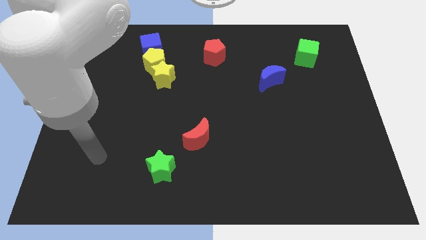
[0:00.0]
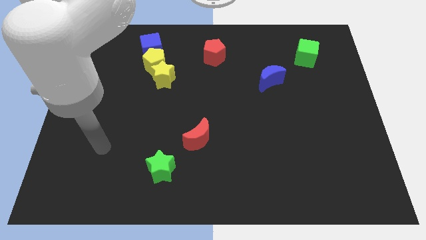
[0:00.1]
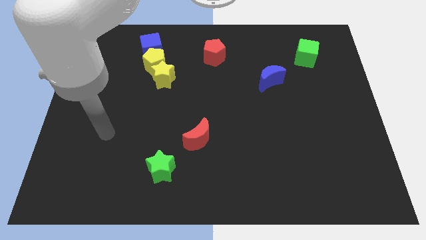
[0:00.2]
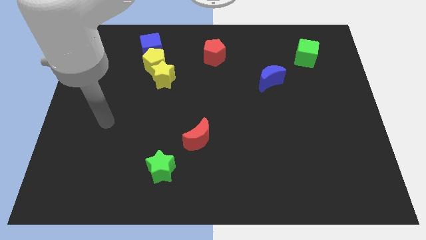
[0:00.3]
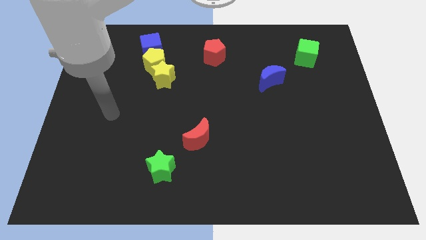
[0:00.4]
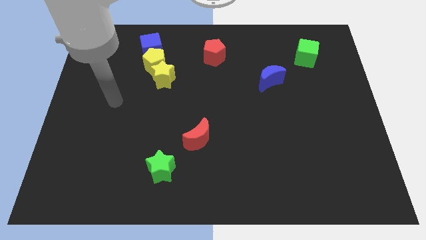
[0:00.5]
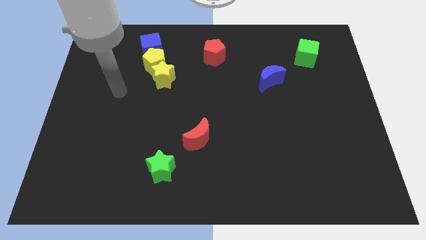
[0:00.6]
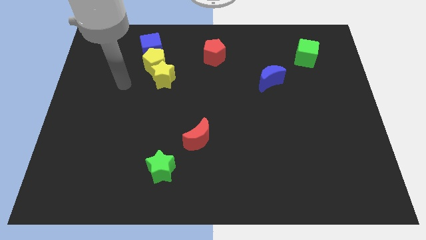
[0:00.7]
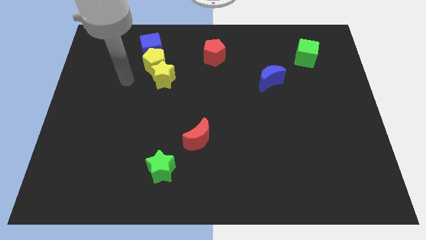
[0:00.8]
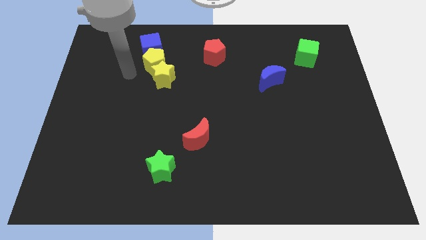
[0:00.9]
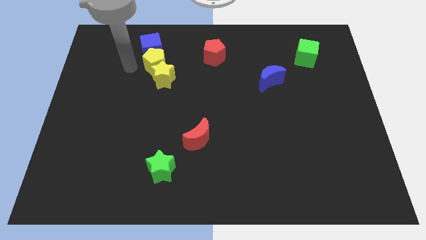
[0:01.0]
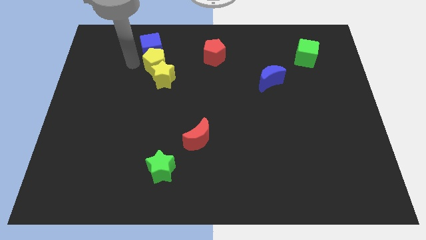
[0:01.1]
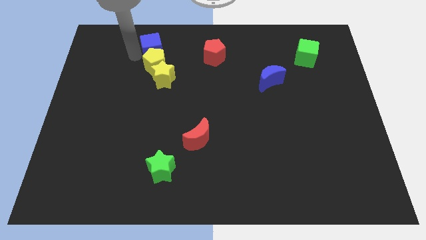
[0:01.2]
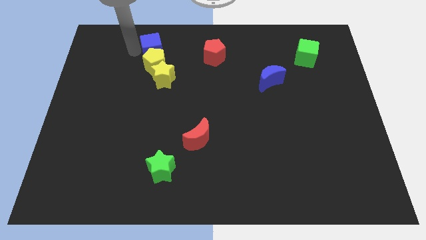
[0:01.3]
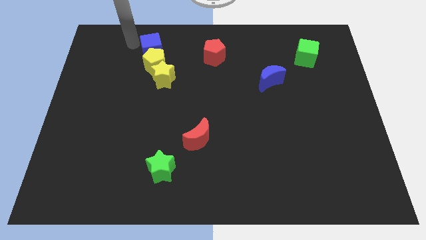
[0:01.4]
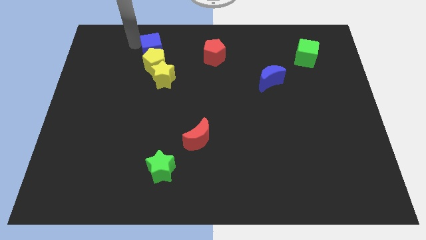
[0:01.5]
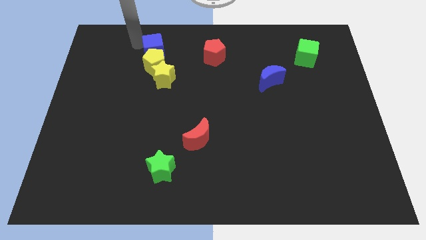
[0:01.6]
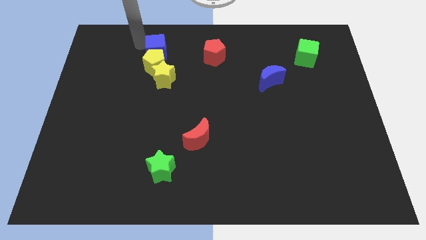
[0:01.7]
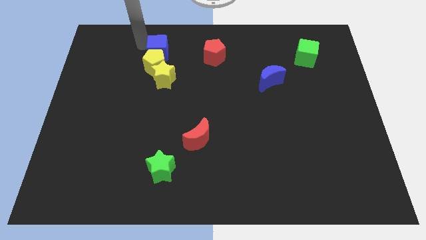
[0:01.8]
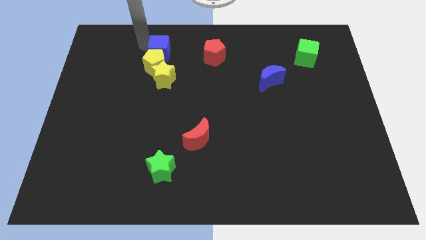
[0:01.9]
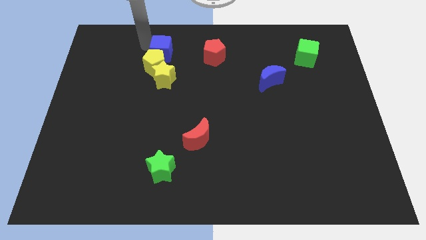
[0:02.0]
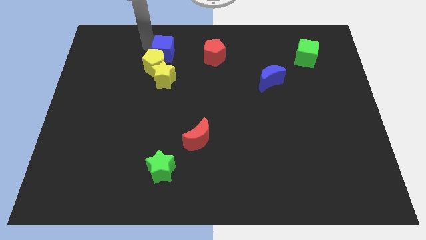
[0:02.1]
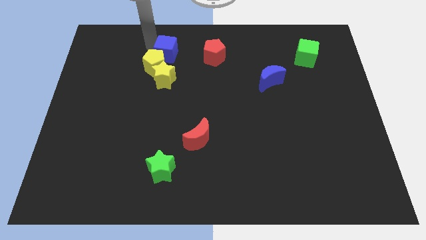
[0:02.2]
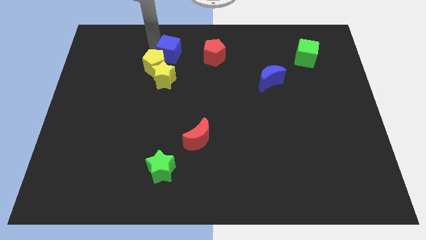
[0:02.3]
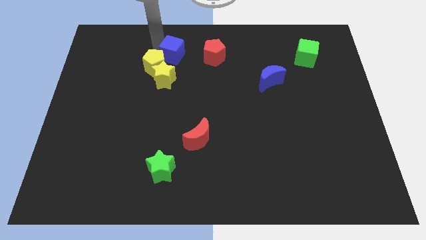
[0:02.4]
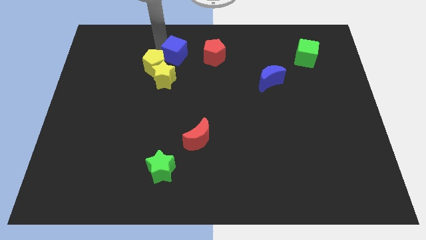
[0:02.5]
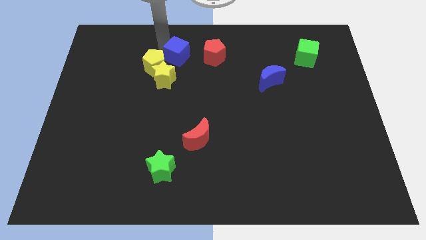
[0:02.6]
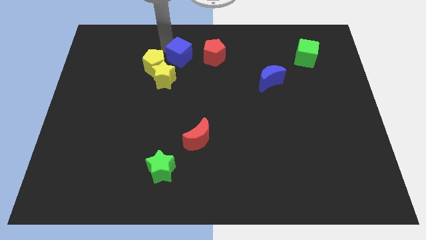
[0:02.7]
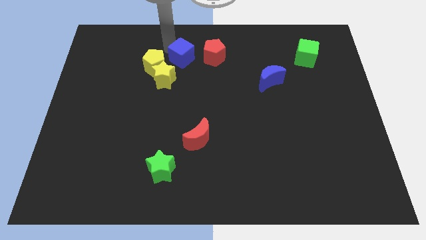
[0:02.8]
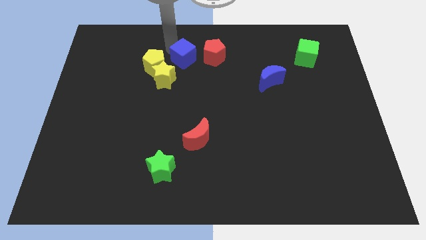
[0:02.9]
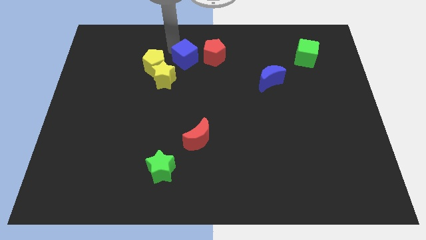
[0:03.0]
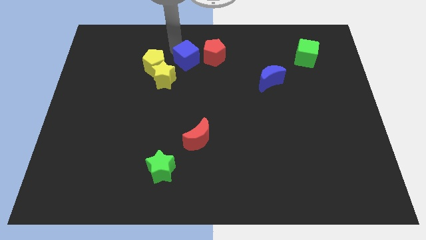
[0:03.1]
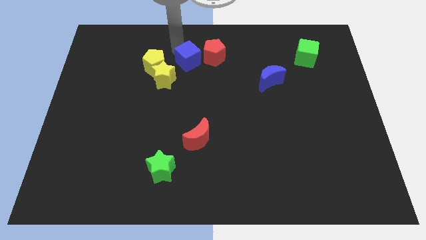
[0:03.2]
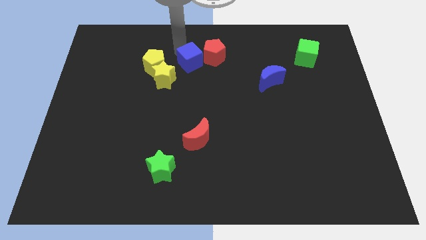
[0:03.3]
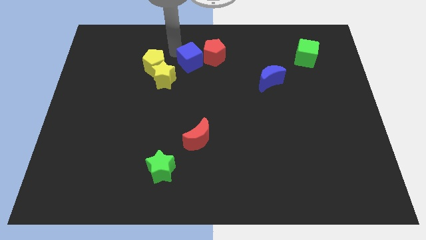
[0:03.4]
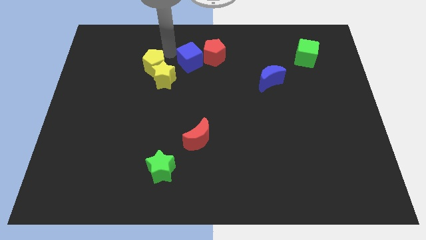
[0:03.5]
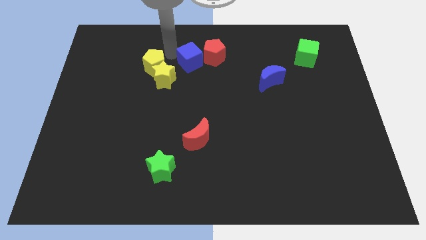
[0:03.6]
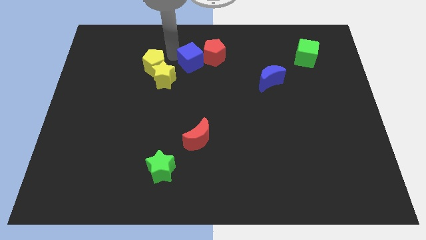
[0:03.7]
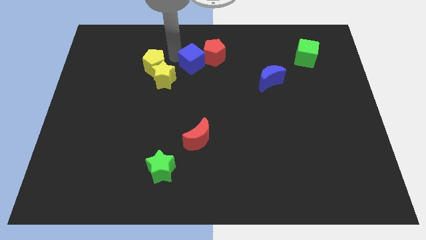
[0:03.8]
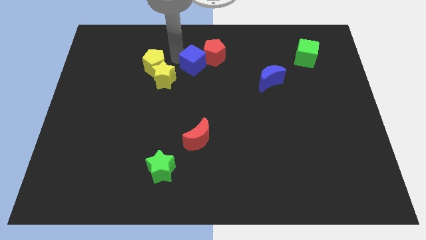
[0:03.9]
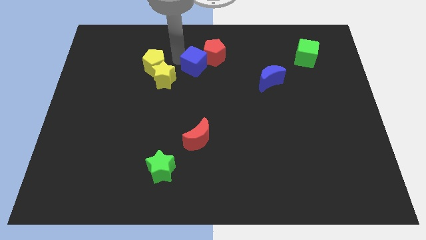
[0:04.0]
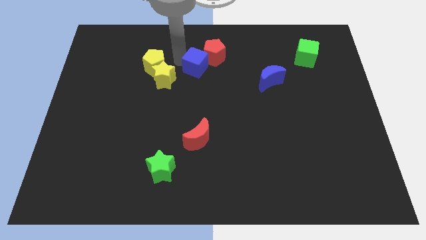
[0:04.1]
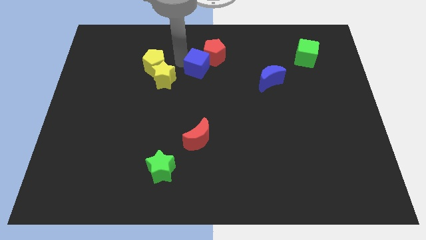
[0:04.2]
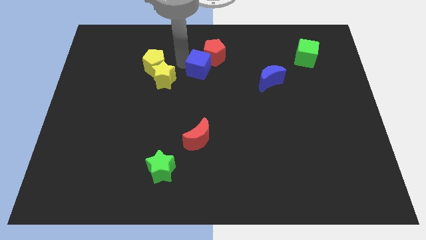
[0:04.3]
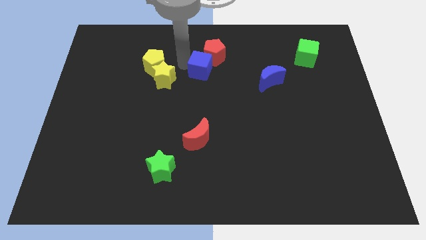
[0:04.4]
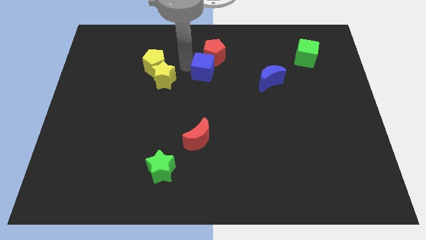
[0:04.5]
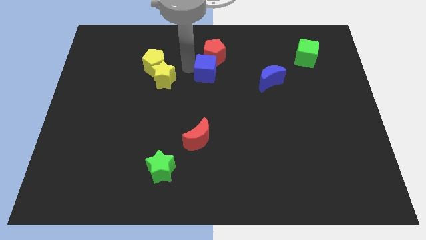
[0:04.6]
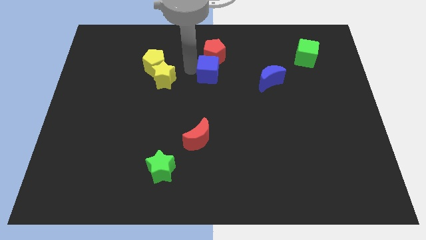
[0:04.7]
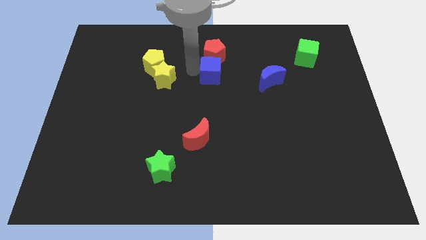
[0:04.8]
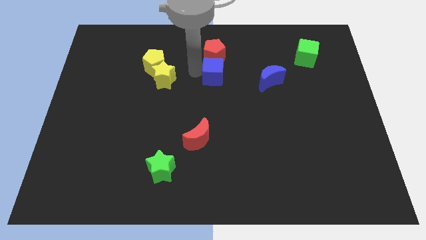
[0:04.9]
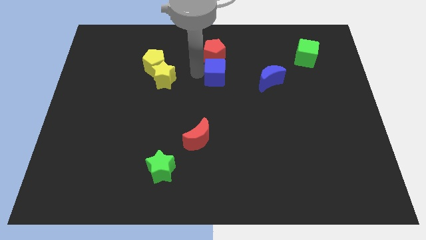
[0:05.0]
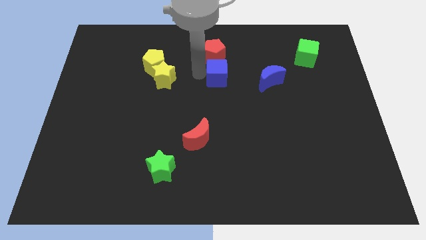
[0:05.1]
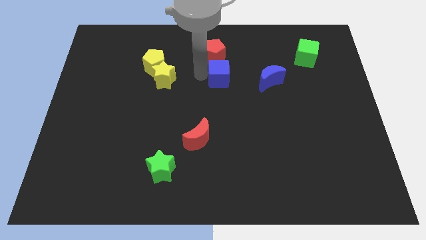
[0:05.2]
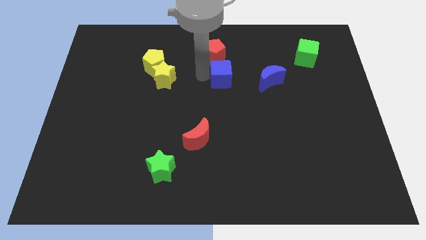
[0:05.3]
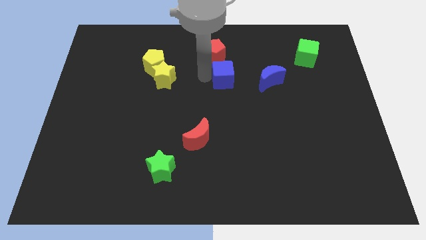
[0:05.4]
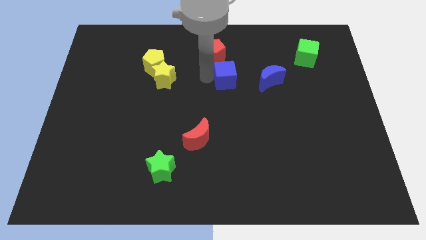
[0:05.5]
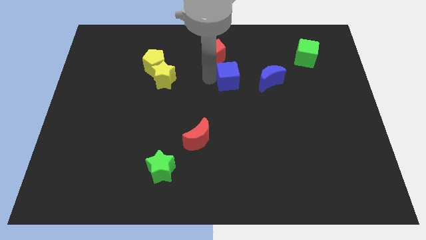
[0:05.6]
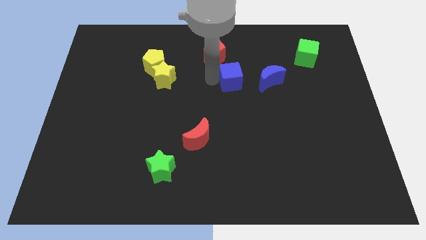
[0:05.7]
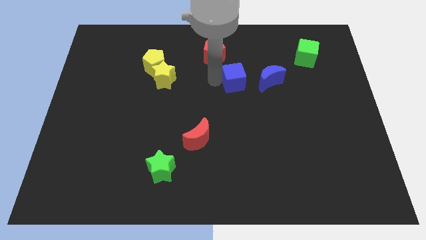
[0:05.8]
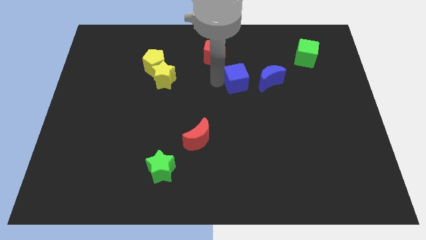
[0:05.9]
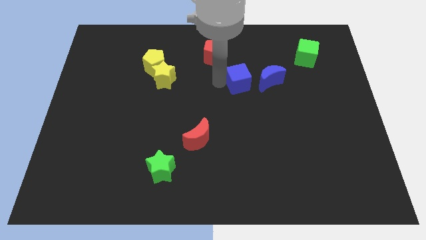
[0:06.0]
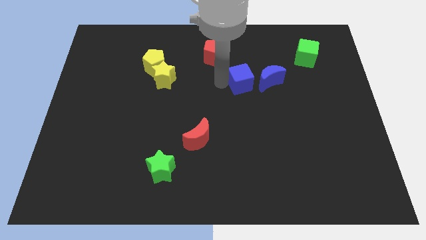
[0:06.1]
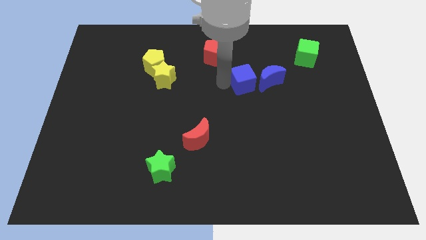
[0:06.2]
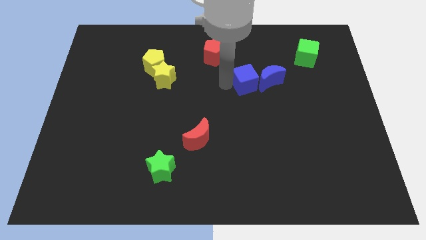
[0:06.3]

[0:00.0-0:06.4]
slide the blue cube close to the blue moon

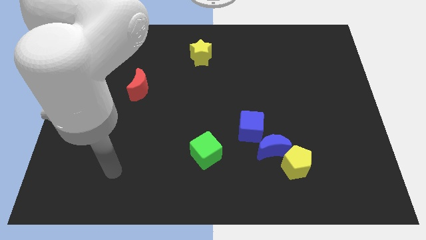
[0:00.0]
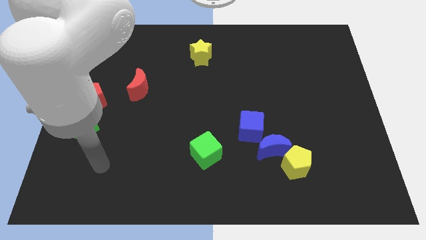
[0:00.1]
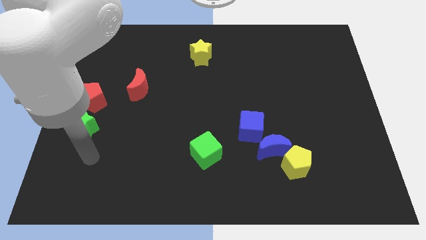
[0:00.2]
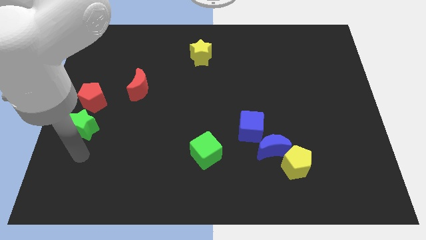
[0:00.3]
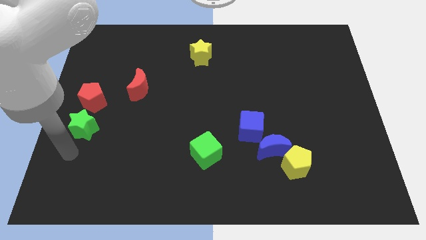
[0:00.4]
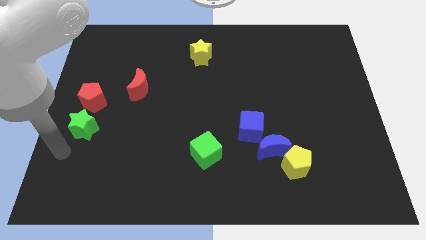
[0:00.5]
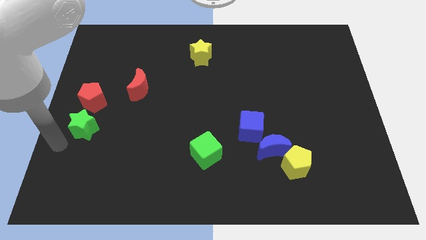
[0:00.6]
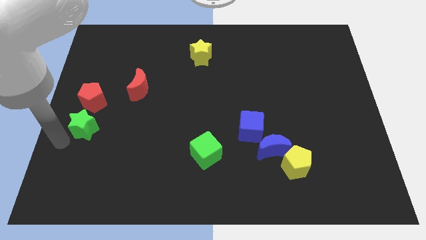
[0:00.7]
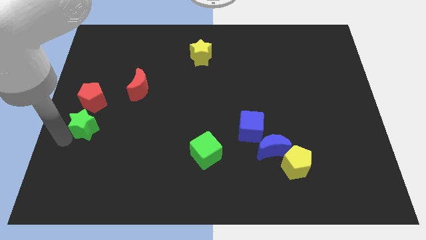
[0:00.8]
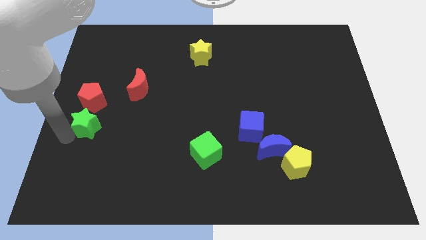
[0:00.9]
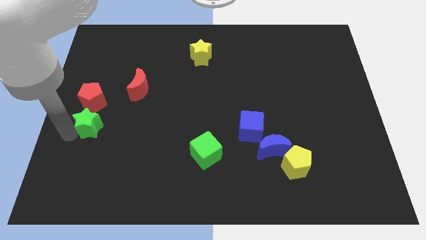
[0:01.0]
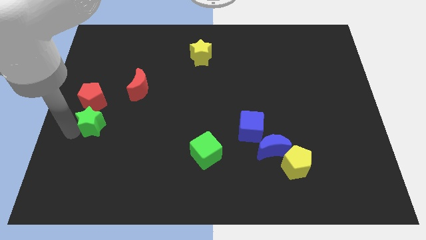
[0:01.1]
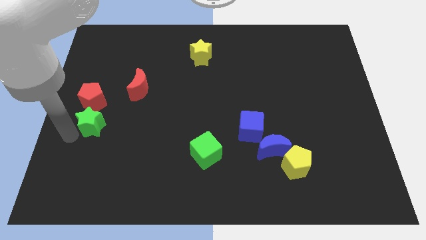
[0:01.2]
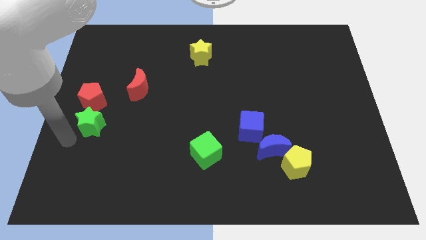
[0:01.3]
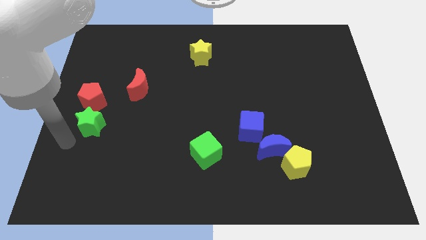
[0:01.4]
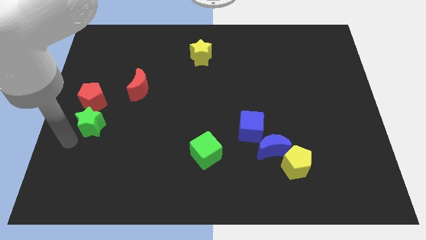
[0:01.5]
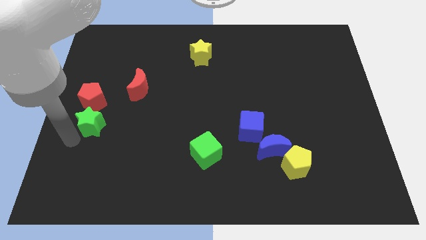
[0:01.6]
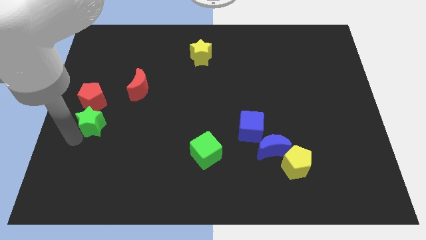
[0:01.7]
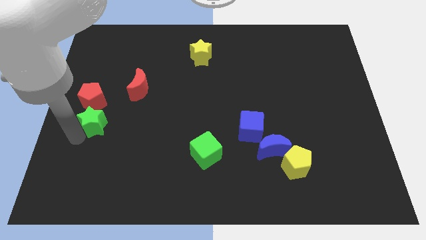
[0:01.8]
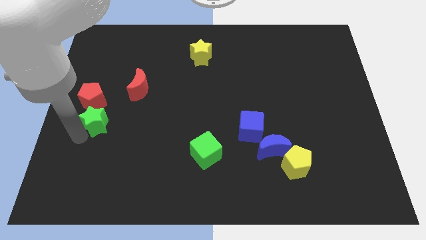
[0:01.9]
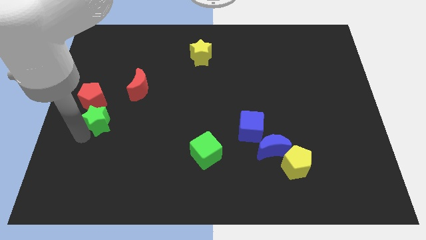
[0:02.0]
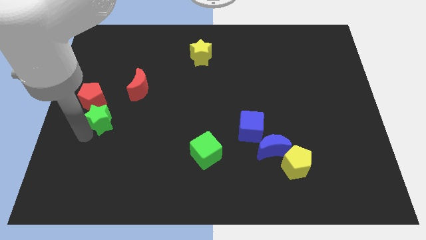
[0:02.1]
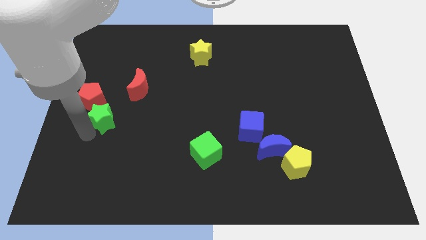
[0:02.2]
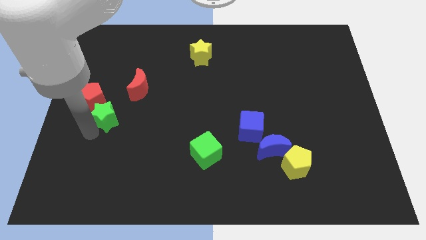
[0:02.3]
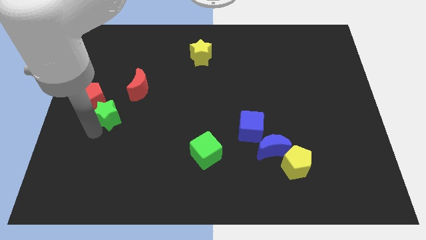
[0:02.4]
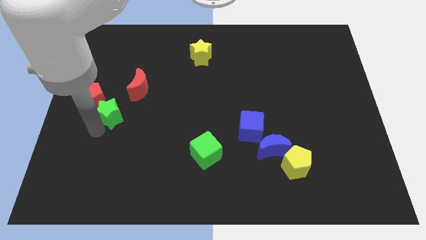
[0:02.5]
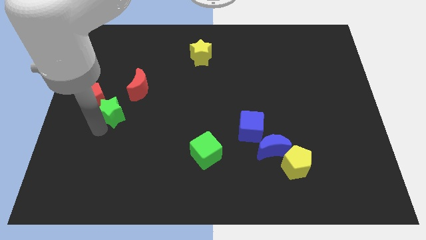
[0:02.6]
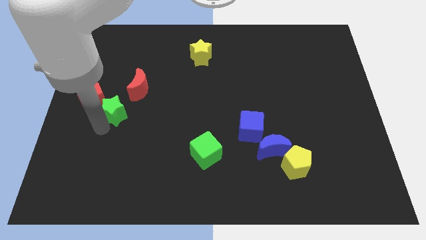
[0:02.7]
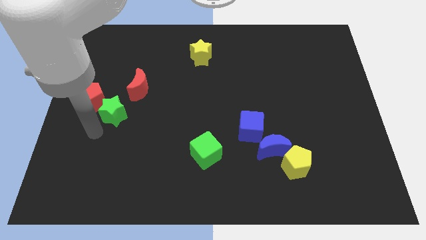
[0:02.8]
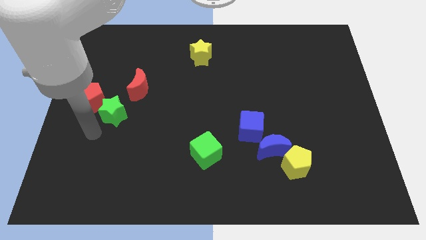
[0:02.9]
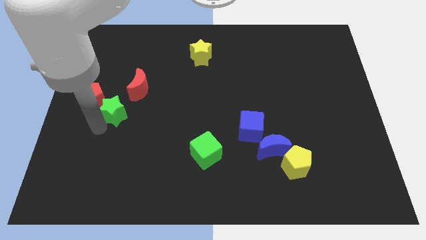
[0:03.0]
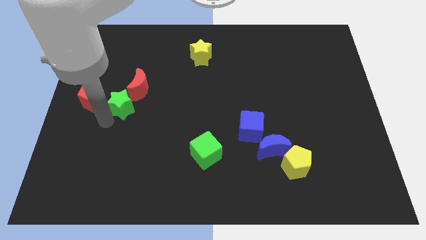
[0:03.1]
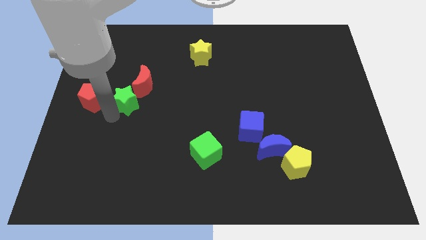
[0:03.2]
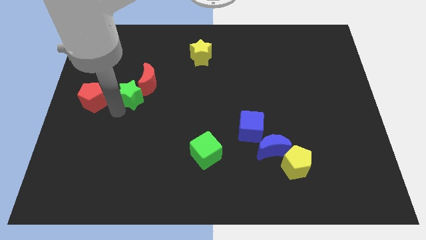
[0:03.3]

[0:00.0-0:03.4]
slide the green star to the red moon
